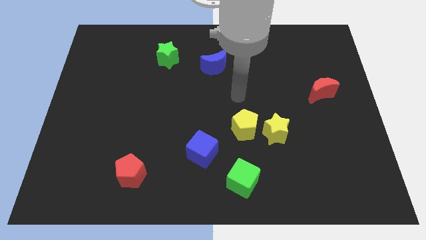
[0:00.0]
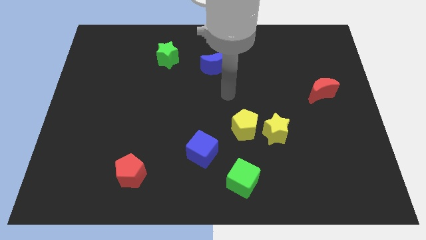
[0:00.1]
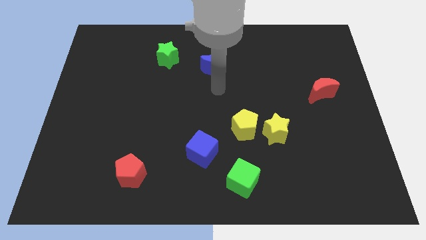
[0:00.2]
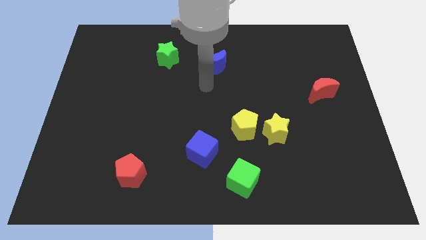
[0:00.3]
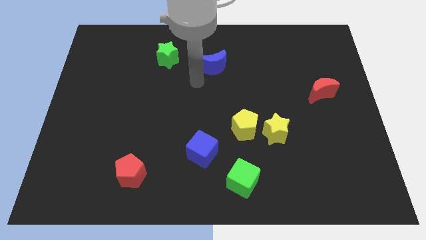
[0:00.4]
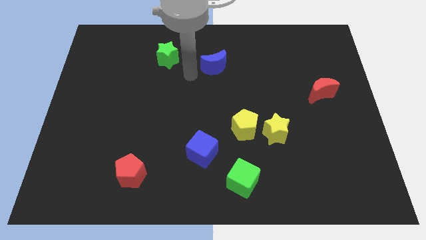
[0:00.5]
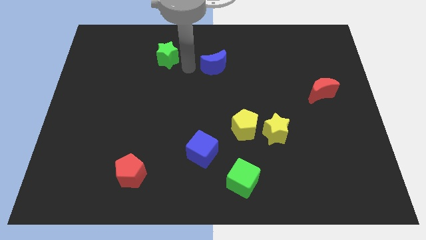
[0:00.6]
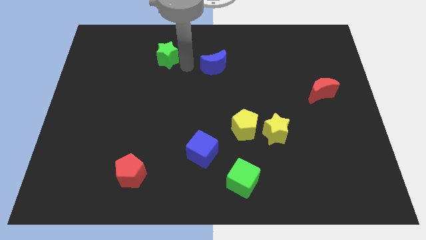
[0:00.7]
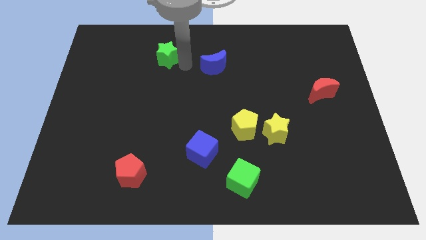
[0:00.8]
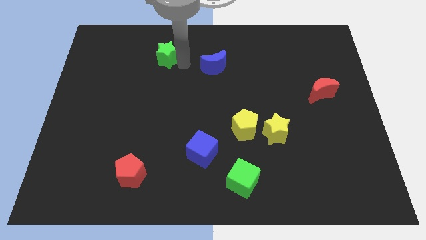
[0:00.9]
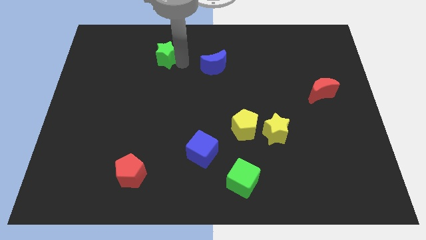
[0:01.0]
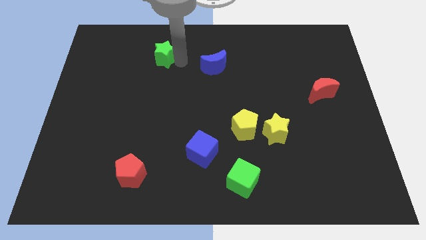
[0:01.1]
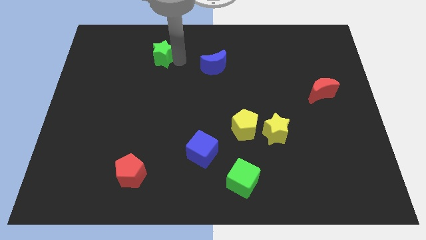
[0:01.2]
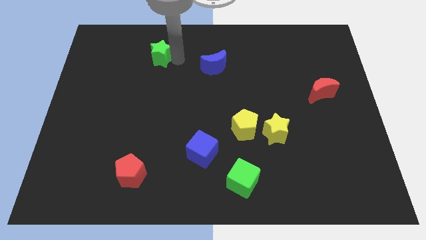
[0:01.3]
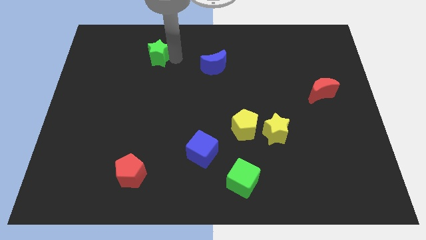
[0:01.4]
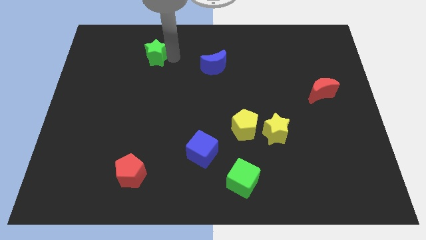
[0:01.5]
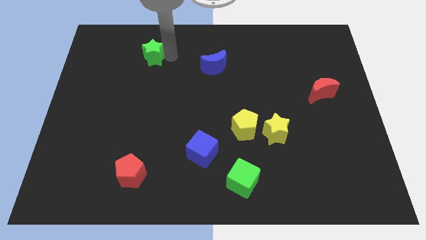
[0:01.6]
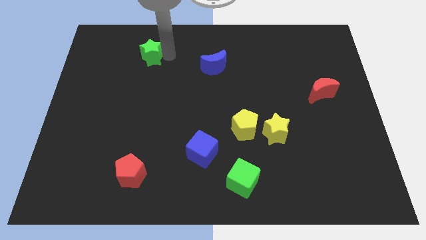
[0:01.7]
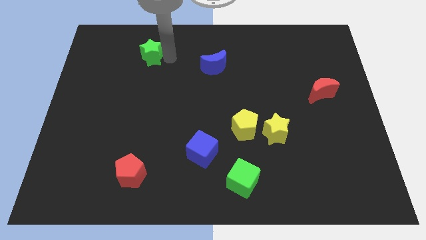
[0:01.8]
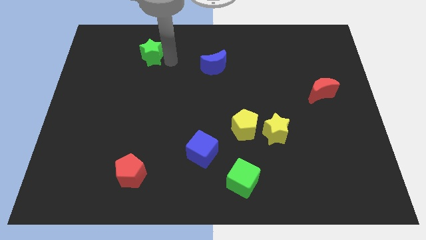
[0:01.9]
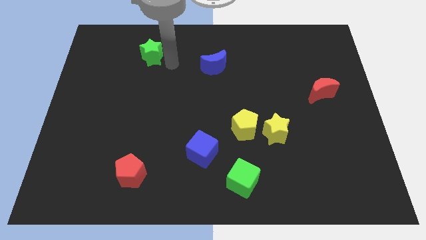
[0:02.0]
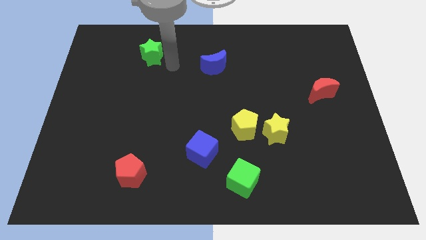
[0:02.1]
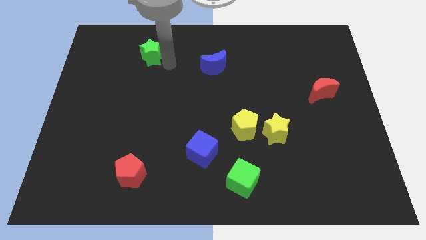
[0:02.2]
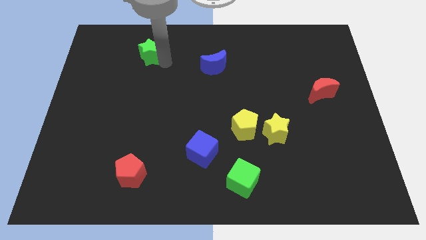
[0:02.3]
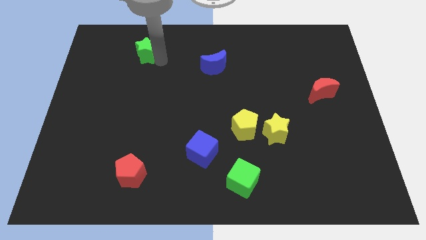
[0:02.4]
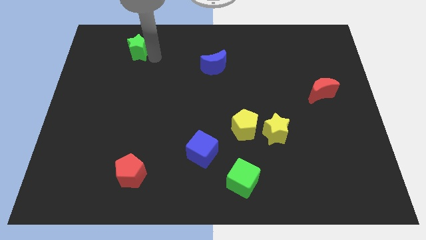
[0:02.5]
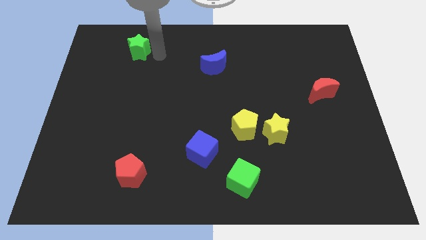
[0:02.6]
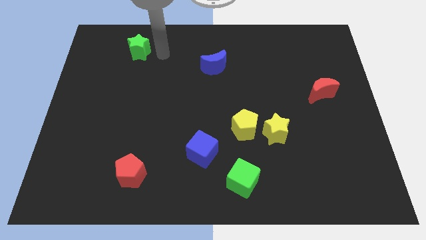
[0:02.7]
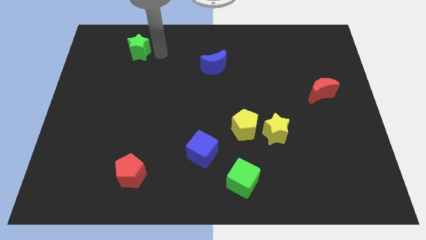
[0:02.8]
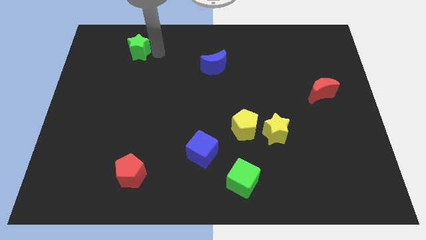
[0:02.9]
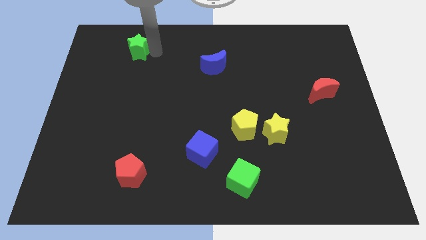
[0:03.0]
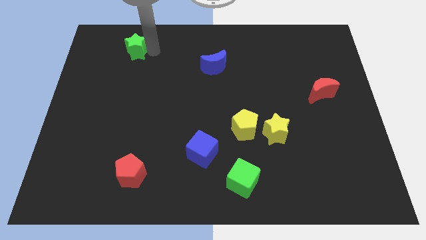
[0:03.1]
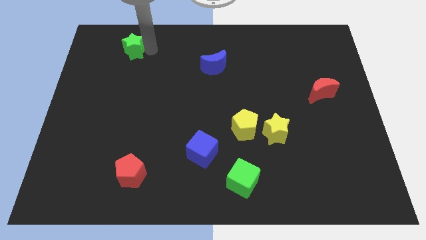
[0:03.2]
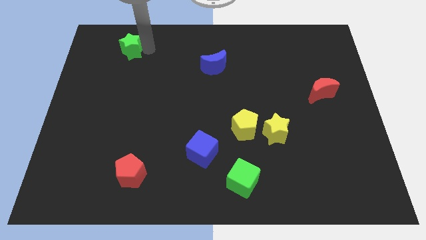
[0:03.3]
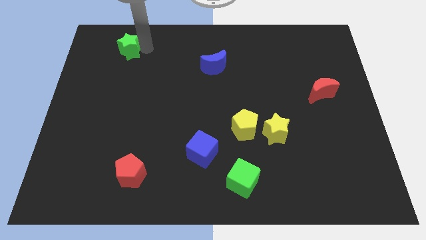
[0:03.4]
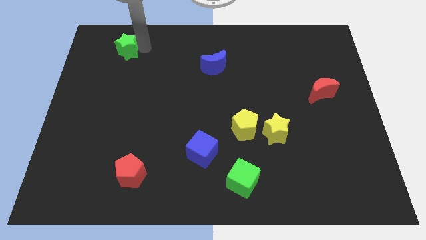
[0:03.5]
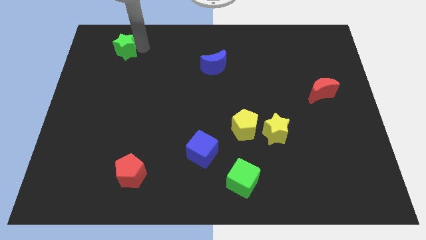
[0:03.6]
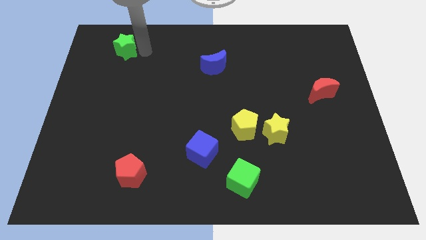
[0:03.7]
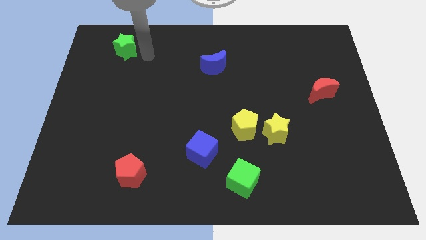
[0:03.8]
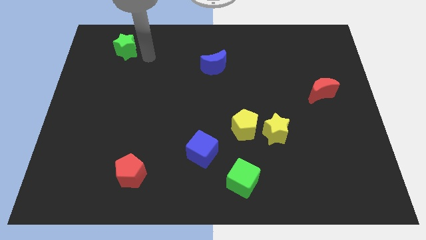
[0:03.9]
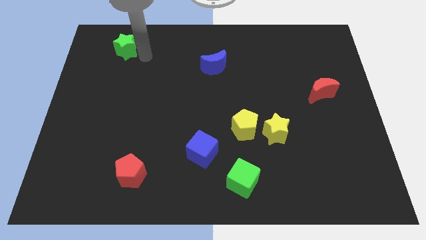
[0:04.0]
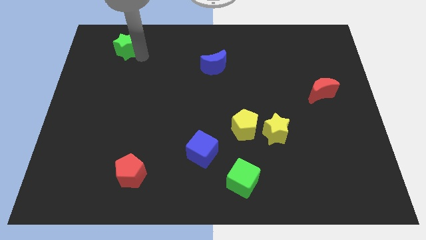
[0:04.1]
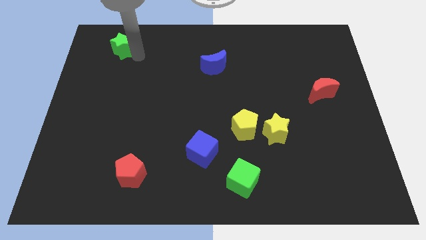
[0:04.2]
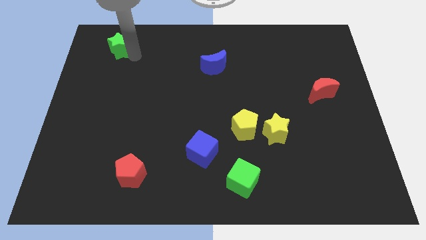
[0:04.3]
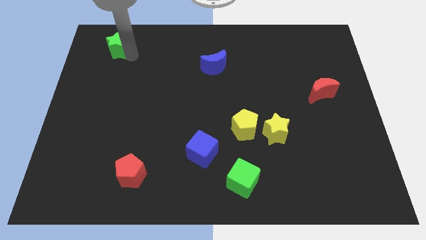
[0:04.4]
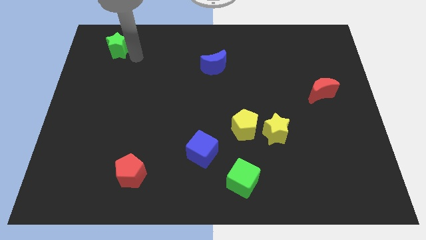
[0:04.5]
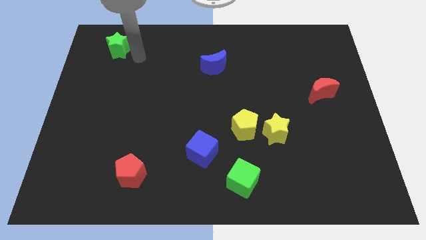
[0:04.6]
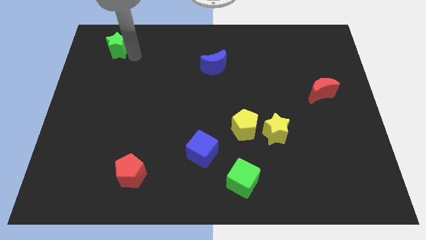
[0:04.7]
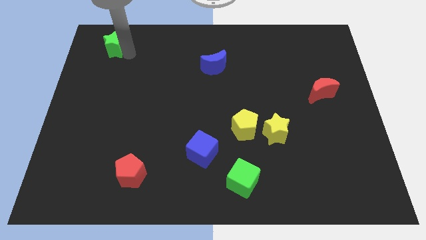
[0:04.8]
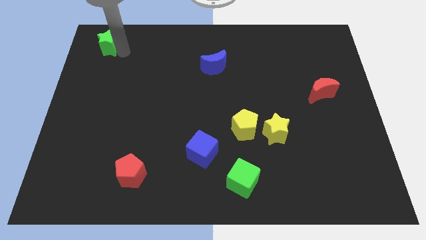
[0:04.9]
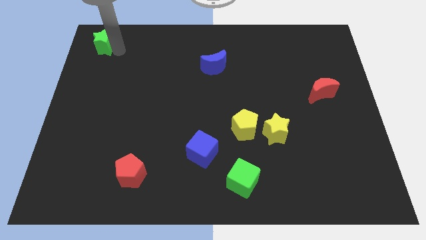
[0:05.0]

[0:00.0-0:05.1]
push the green star to the top left

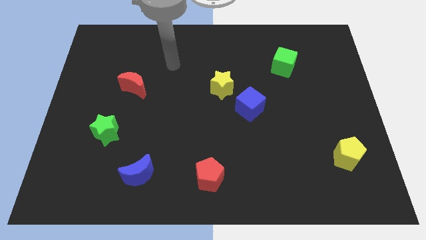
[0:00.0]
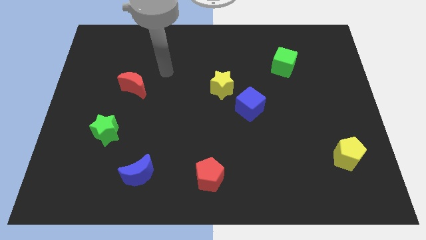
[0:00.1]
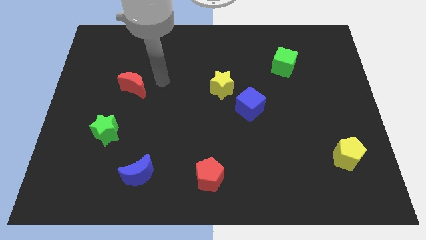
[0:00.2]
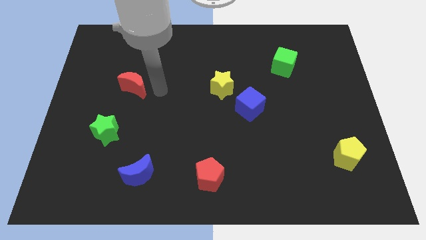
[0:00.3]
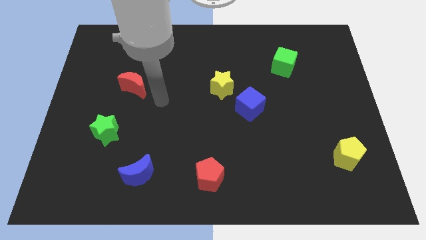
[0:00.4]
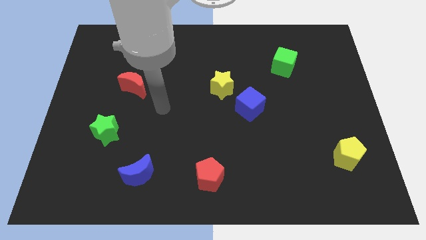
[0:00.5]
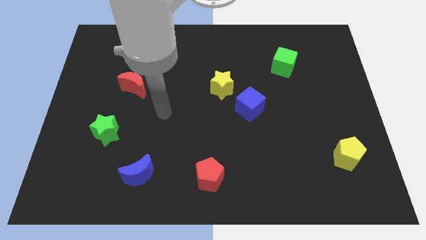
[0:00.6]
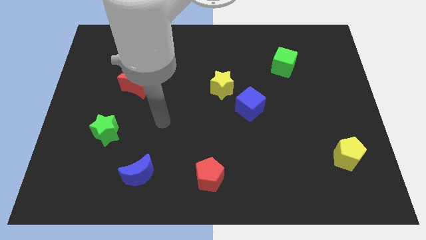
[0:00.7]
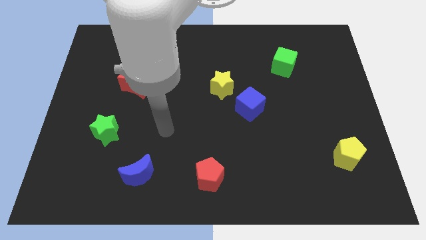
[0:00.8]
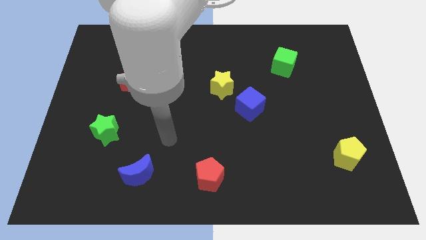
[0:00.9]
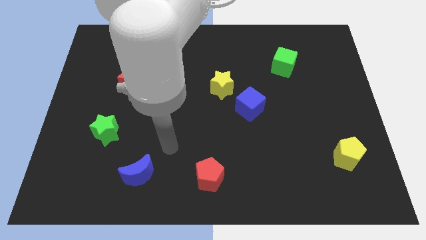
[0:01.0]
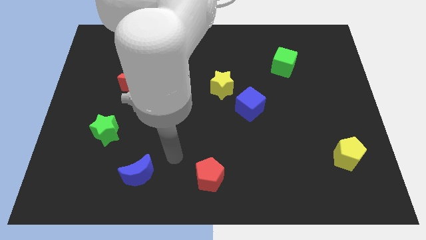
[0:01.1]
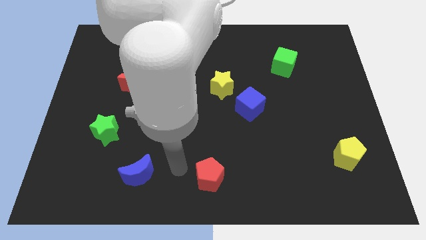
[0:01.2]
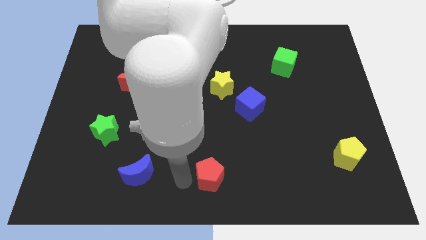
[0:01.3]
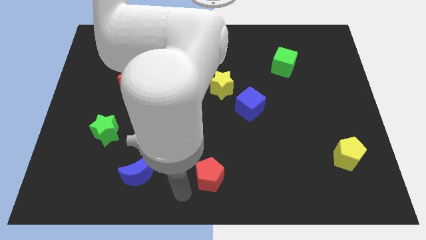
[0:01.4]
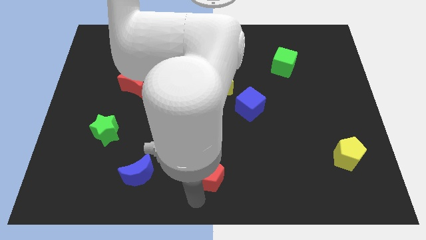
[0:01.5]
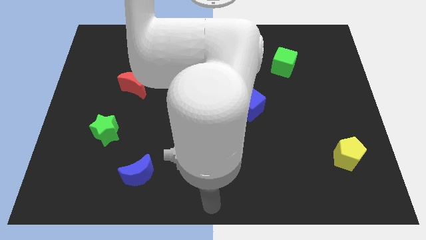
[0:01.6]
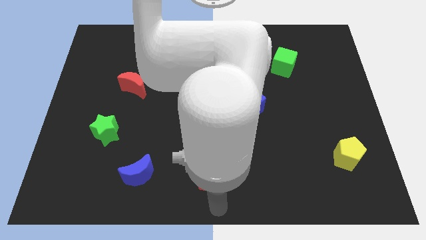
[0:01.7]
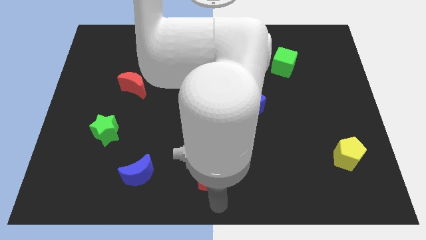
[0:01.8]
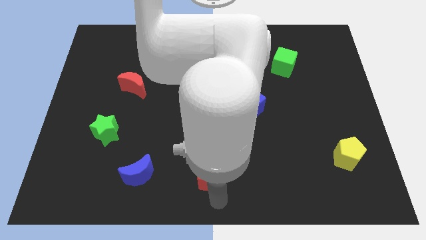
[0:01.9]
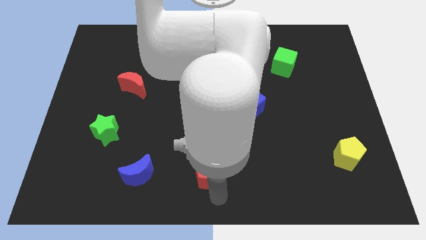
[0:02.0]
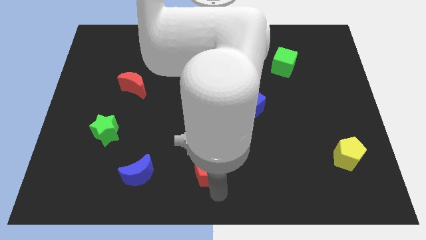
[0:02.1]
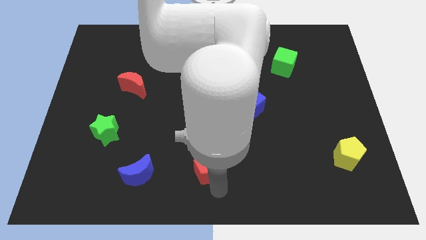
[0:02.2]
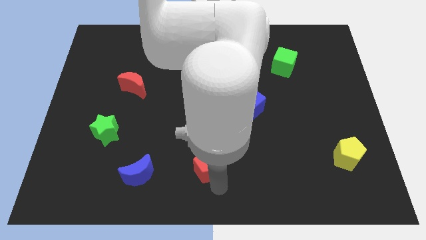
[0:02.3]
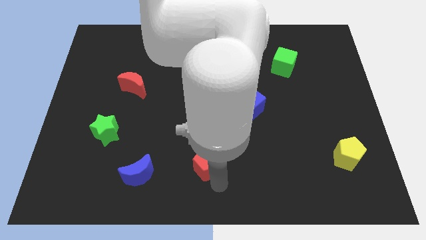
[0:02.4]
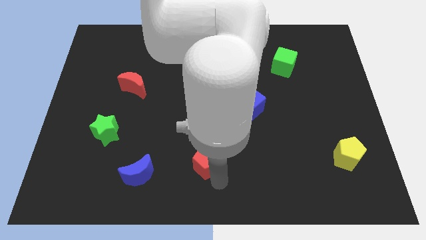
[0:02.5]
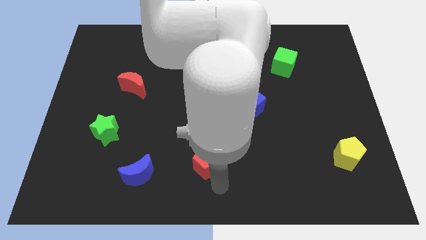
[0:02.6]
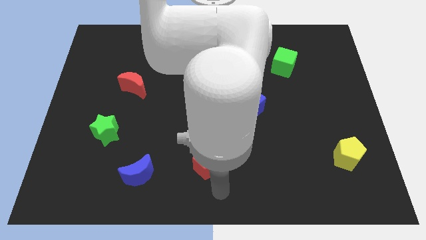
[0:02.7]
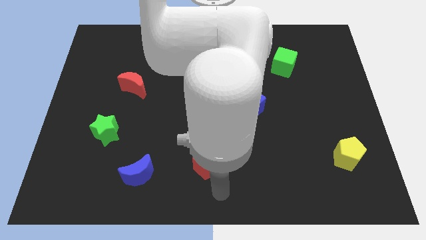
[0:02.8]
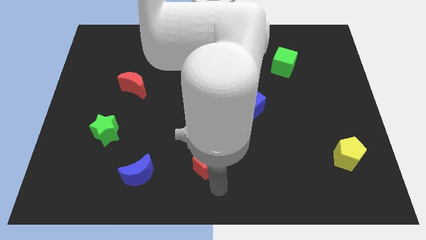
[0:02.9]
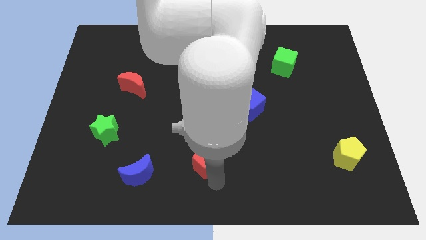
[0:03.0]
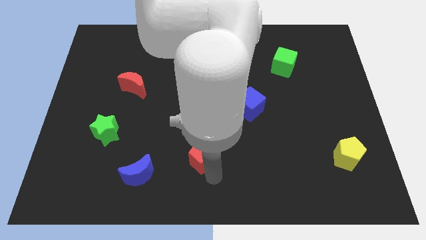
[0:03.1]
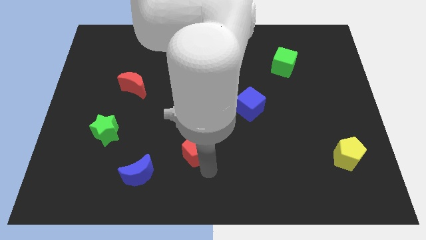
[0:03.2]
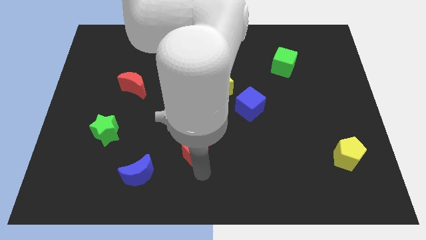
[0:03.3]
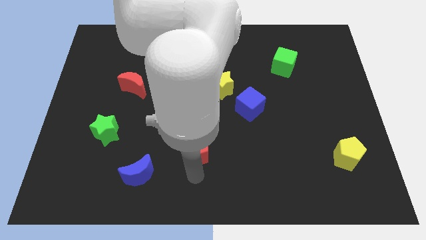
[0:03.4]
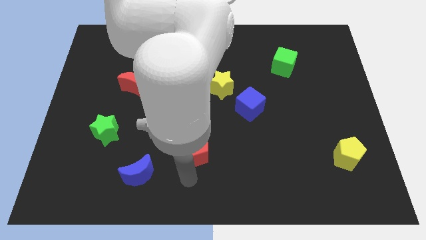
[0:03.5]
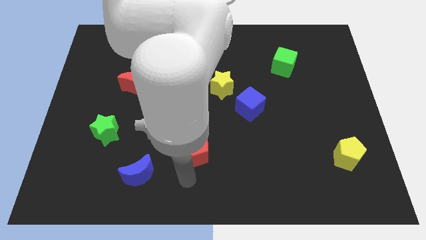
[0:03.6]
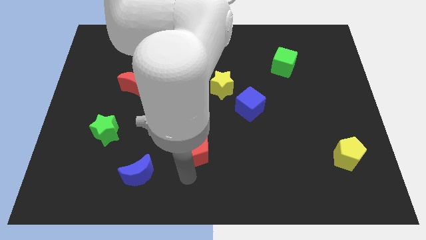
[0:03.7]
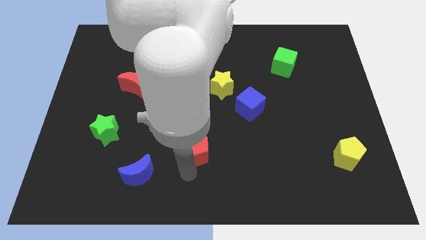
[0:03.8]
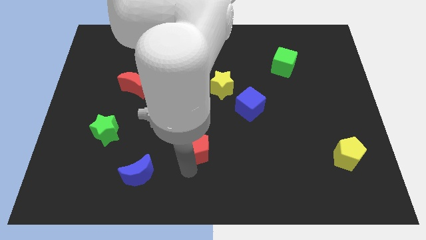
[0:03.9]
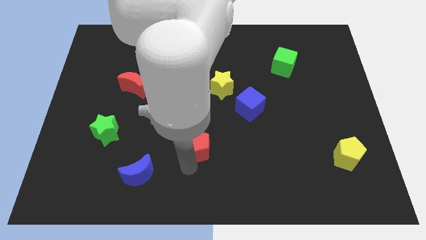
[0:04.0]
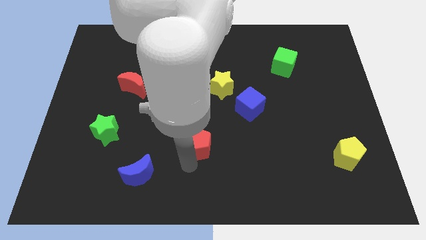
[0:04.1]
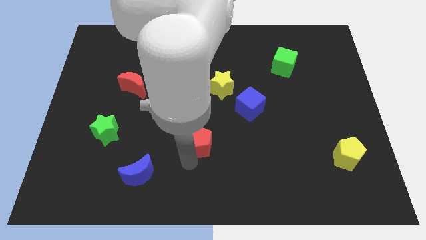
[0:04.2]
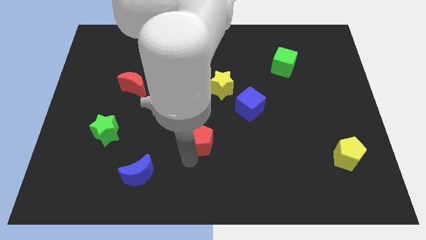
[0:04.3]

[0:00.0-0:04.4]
slide the red pentagon to the middle of the board
